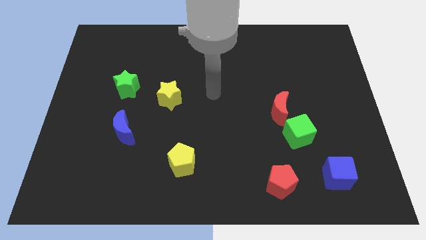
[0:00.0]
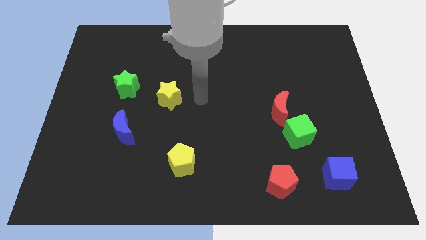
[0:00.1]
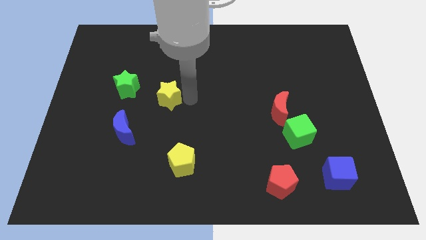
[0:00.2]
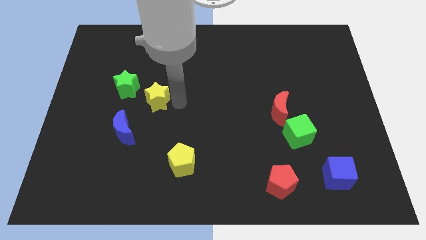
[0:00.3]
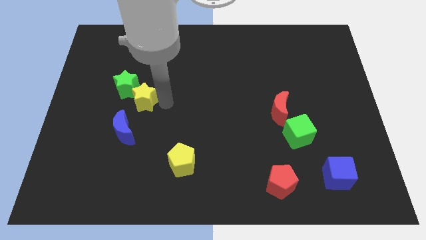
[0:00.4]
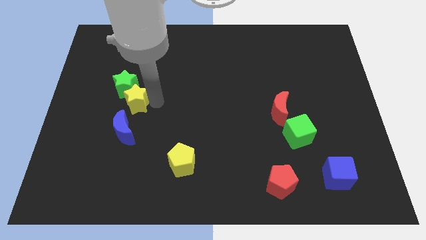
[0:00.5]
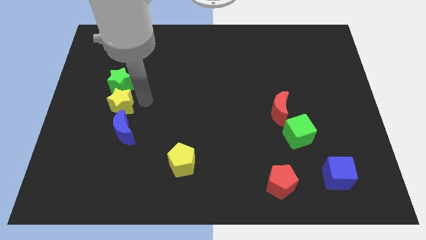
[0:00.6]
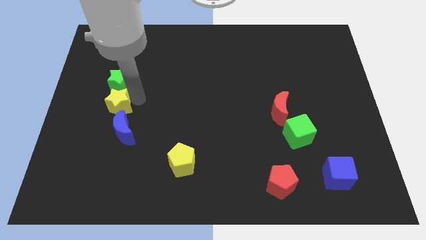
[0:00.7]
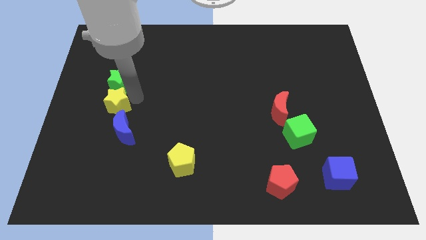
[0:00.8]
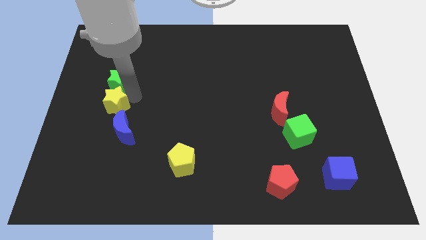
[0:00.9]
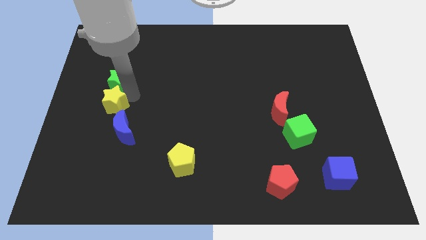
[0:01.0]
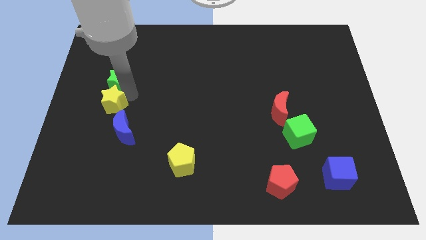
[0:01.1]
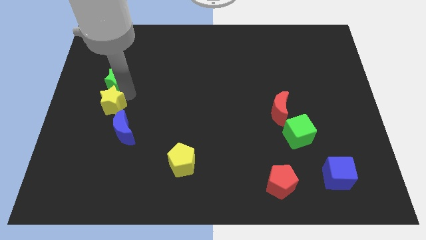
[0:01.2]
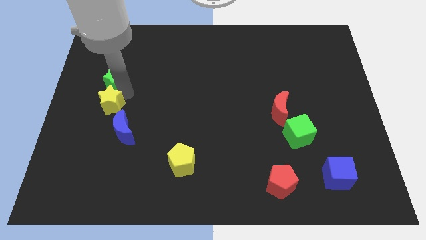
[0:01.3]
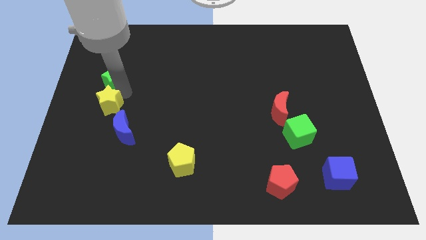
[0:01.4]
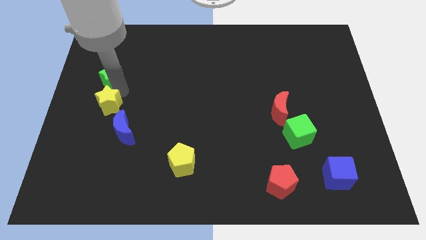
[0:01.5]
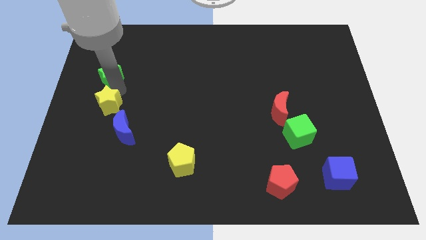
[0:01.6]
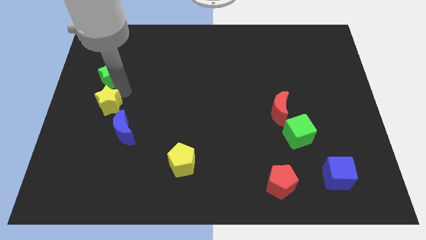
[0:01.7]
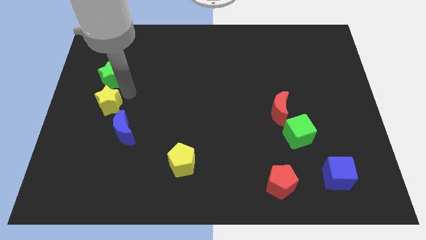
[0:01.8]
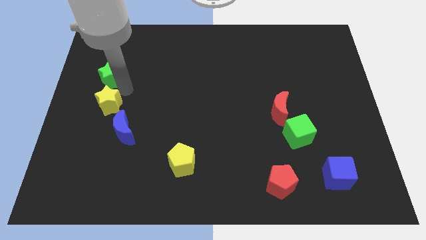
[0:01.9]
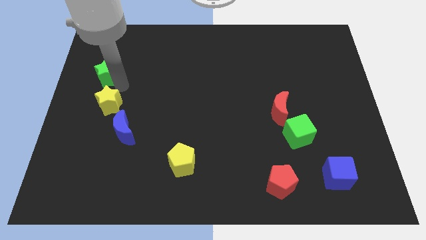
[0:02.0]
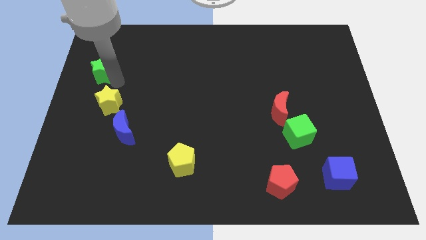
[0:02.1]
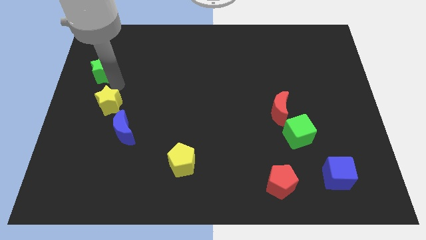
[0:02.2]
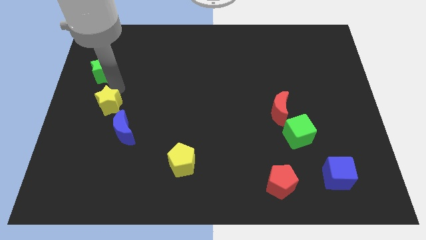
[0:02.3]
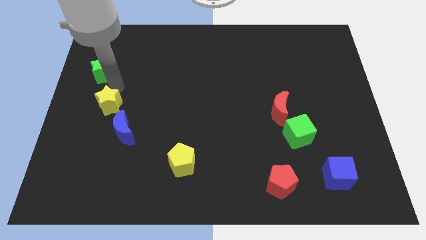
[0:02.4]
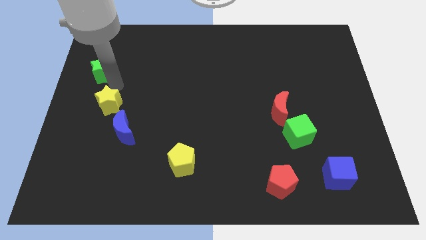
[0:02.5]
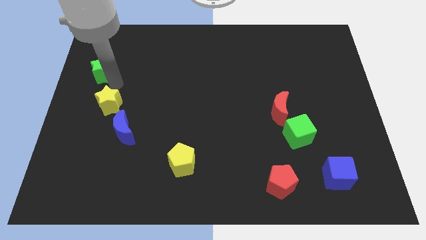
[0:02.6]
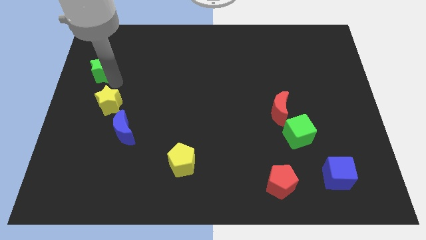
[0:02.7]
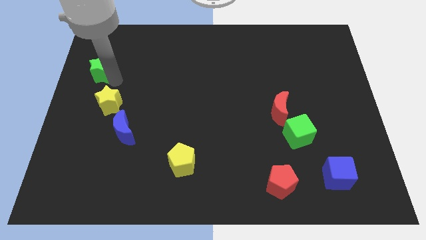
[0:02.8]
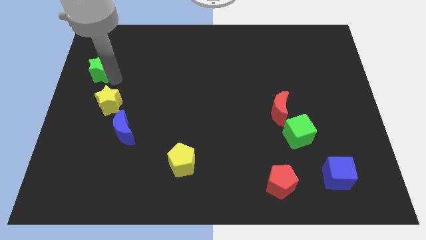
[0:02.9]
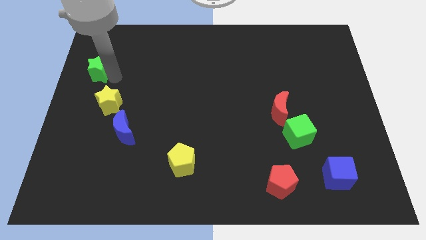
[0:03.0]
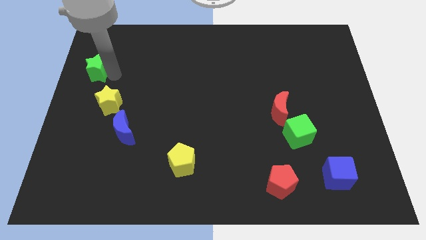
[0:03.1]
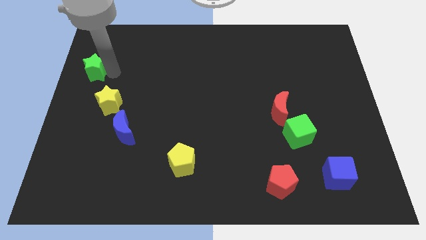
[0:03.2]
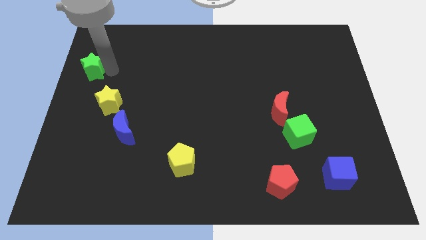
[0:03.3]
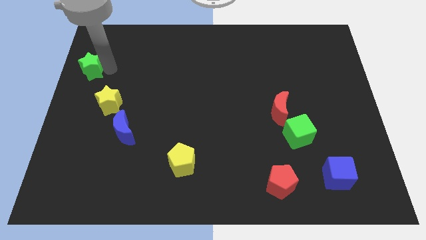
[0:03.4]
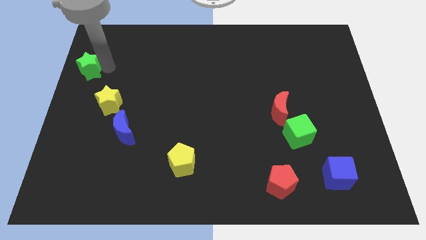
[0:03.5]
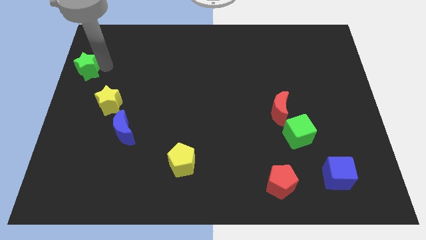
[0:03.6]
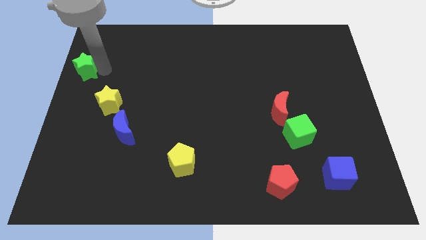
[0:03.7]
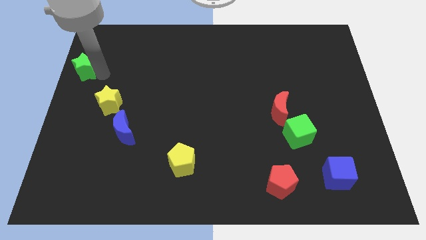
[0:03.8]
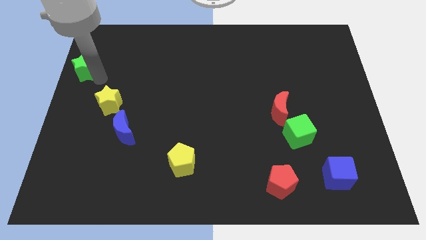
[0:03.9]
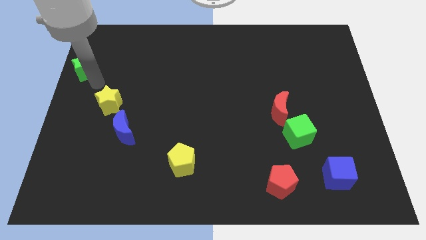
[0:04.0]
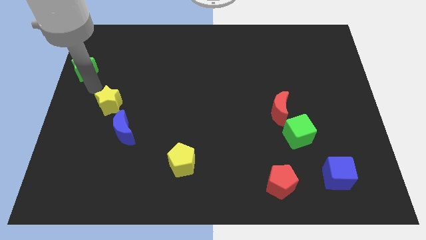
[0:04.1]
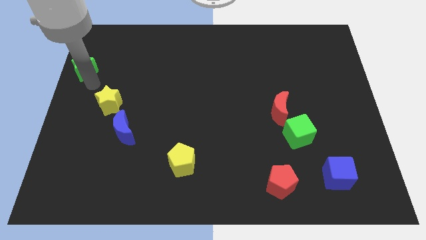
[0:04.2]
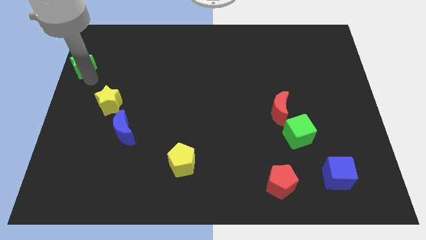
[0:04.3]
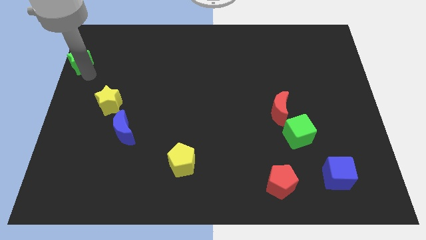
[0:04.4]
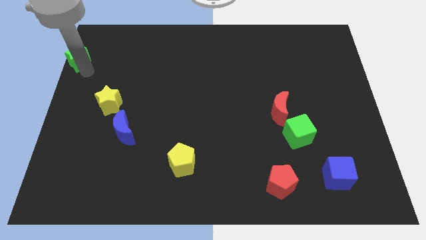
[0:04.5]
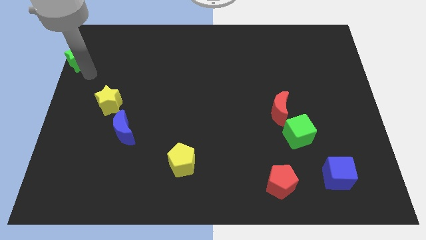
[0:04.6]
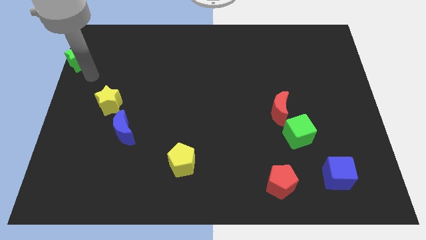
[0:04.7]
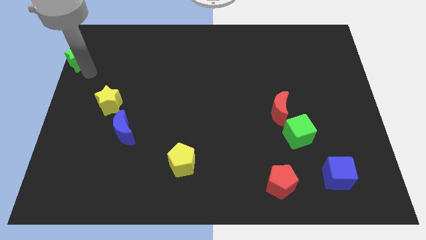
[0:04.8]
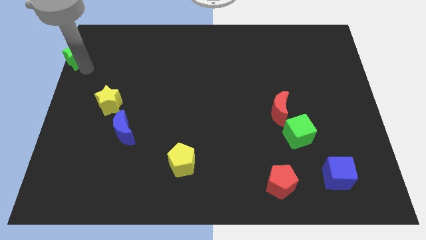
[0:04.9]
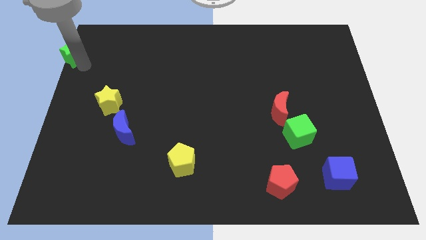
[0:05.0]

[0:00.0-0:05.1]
slide the green star to the top left

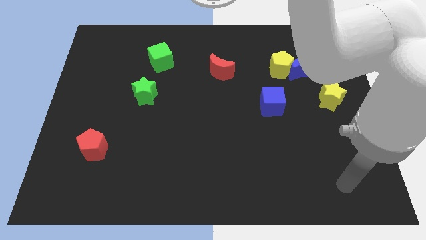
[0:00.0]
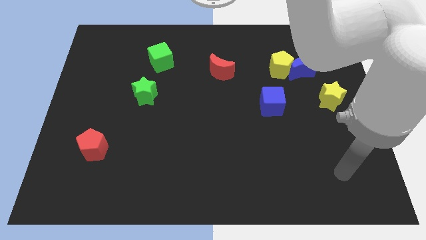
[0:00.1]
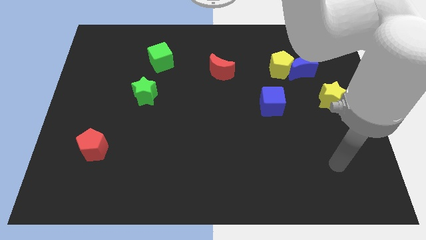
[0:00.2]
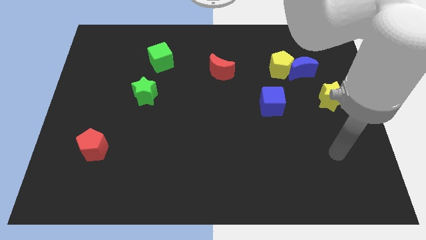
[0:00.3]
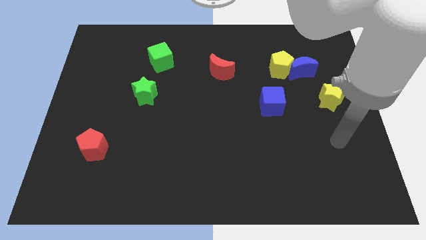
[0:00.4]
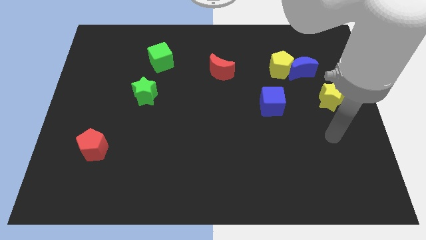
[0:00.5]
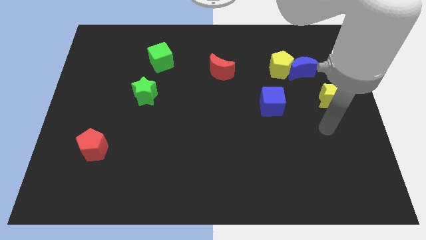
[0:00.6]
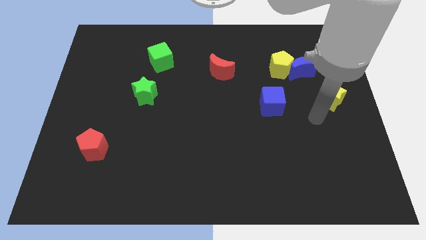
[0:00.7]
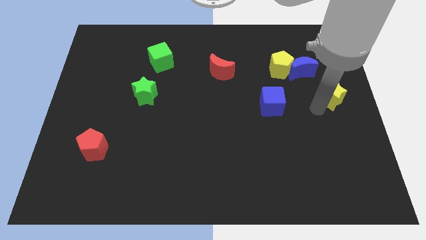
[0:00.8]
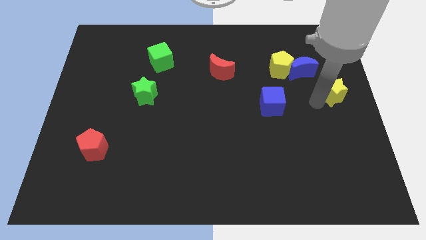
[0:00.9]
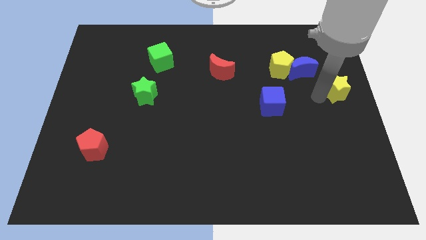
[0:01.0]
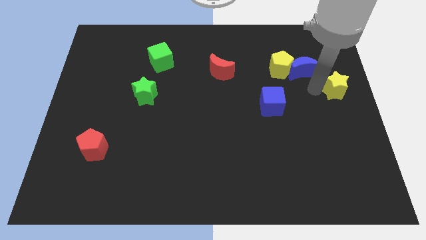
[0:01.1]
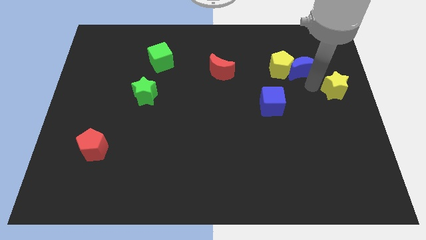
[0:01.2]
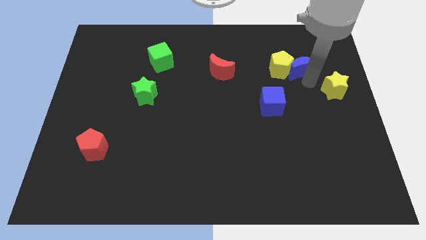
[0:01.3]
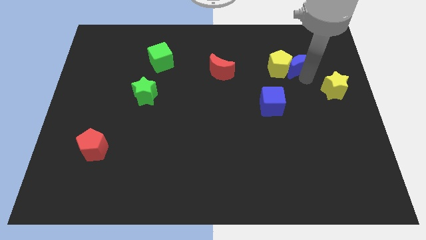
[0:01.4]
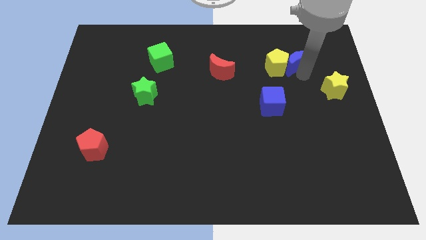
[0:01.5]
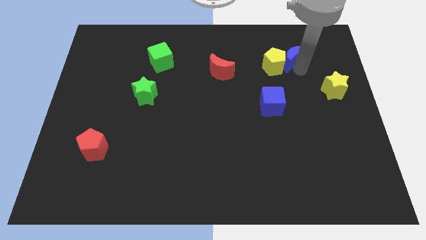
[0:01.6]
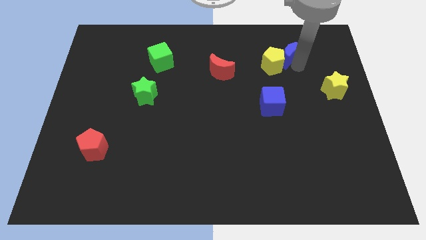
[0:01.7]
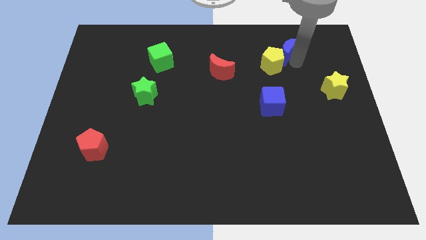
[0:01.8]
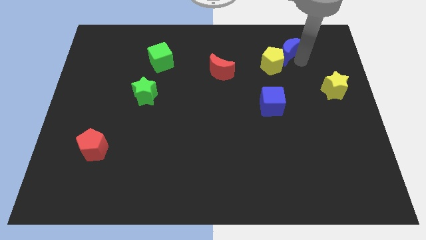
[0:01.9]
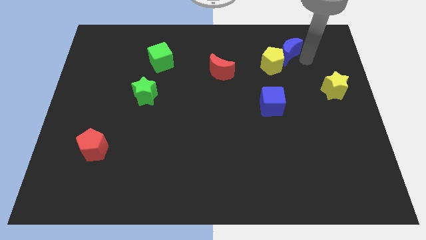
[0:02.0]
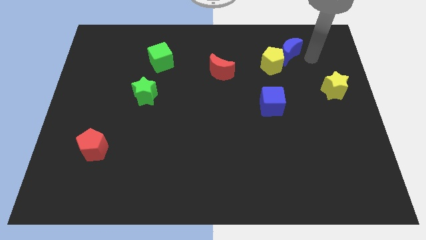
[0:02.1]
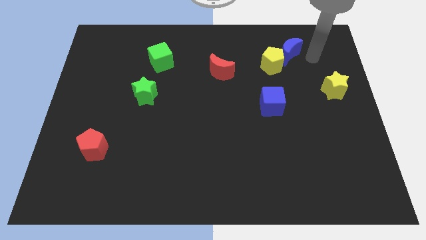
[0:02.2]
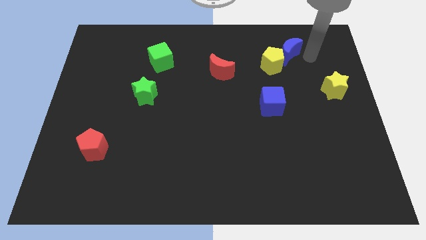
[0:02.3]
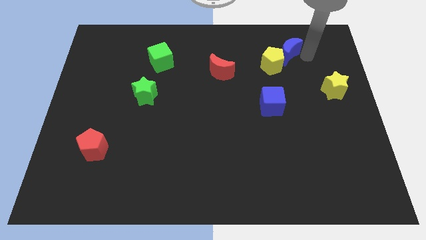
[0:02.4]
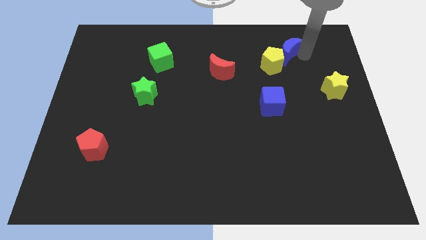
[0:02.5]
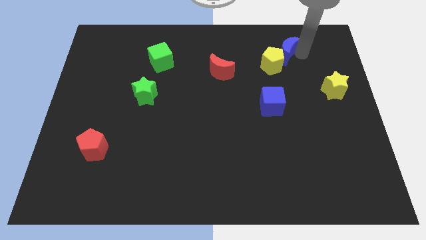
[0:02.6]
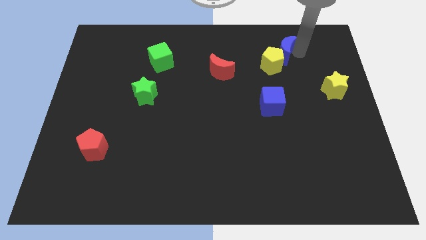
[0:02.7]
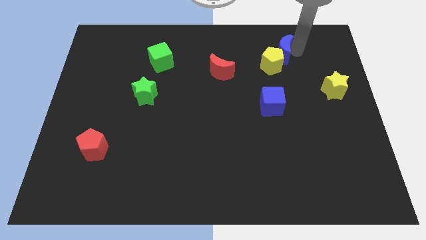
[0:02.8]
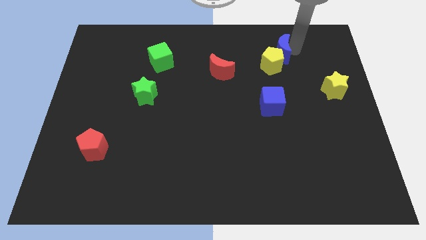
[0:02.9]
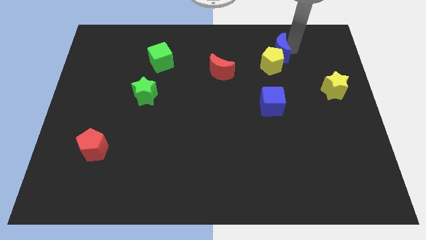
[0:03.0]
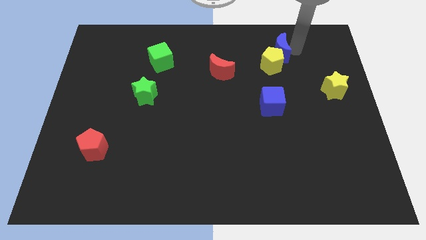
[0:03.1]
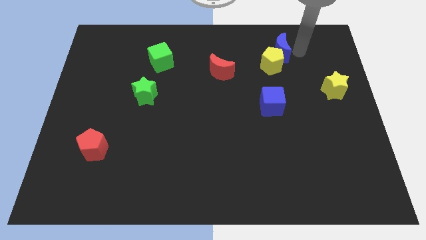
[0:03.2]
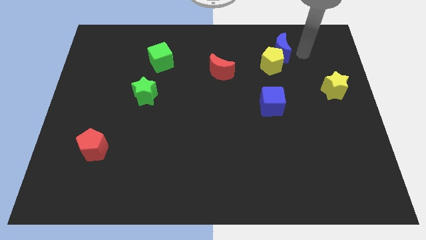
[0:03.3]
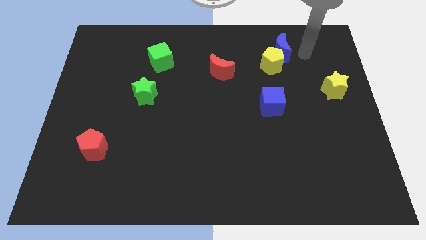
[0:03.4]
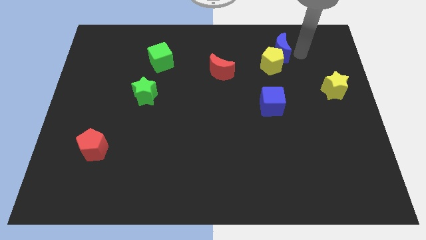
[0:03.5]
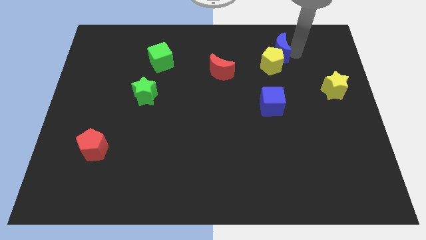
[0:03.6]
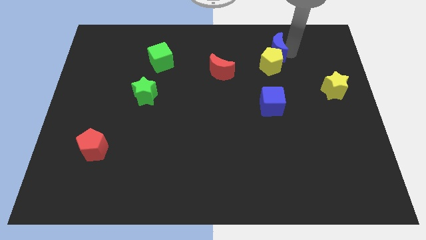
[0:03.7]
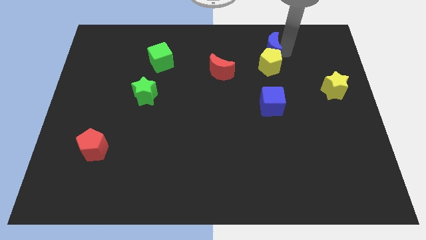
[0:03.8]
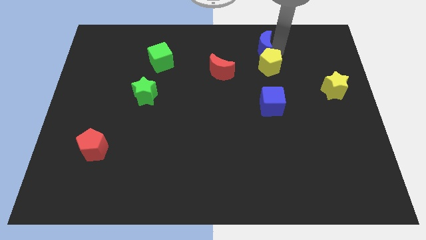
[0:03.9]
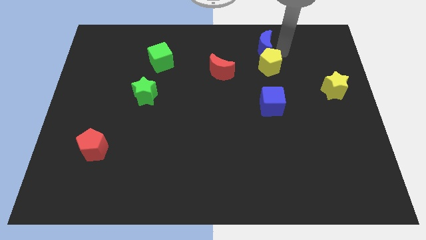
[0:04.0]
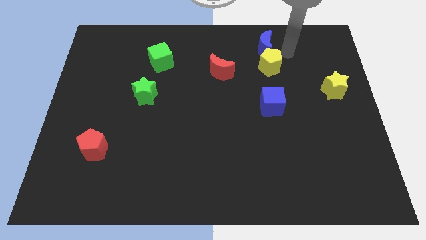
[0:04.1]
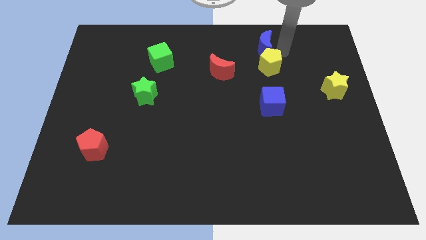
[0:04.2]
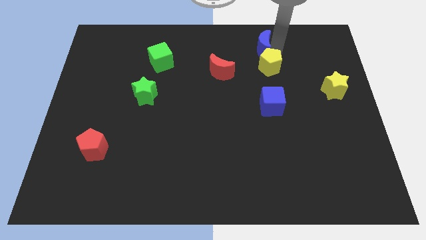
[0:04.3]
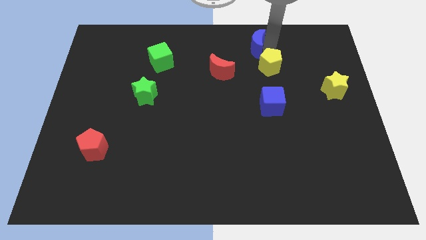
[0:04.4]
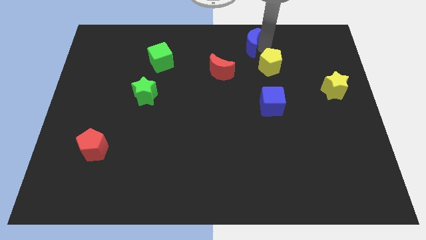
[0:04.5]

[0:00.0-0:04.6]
put the blue moon to the top side
